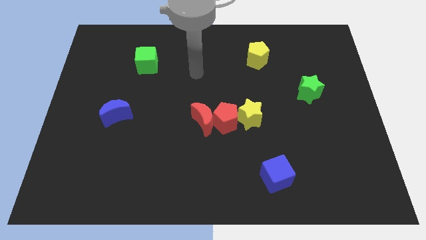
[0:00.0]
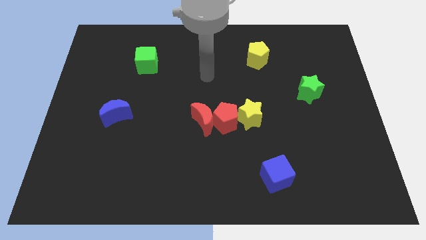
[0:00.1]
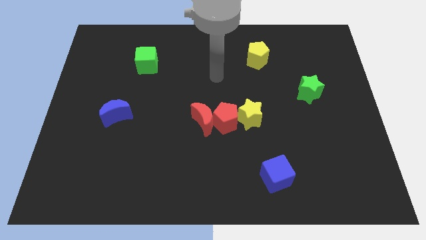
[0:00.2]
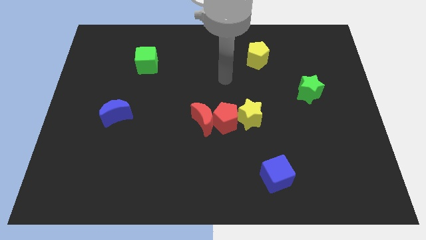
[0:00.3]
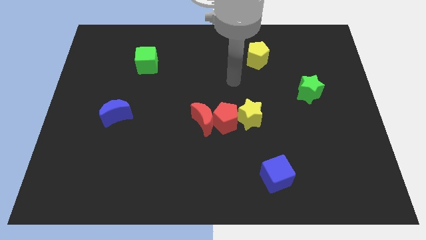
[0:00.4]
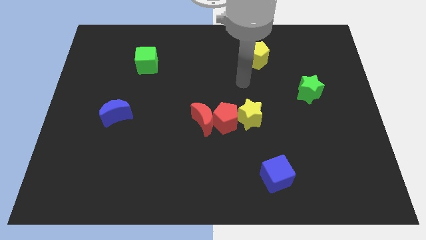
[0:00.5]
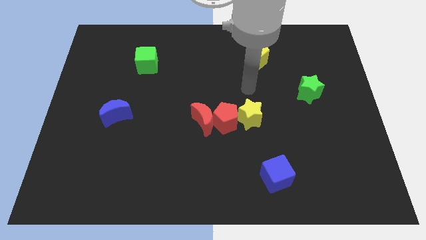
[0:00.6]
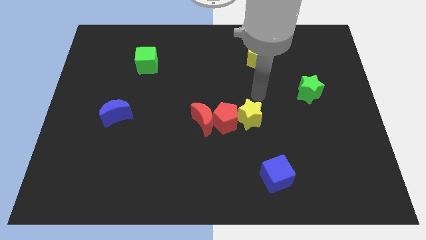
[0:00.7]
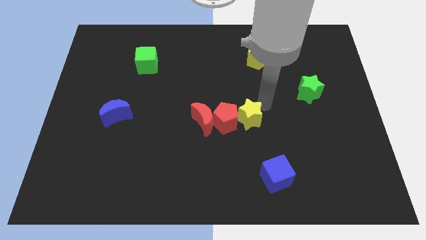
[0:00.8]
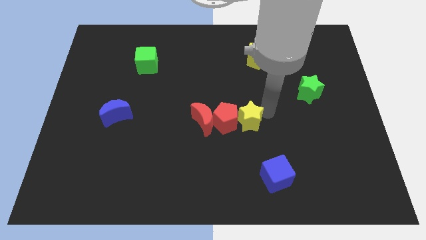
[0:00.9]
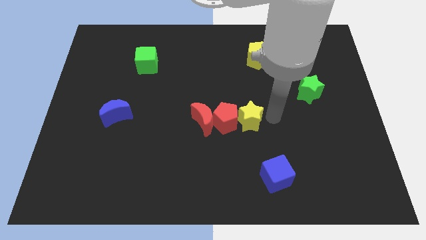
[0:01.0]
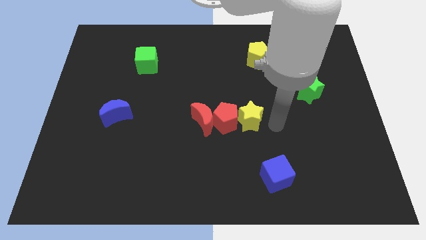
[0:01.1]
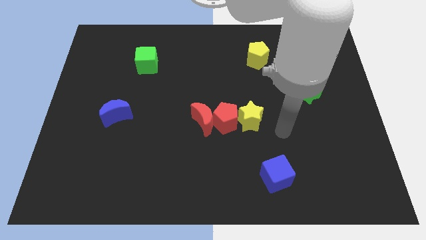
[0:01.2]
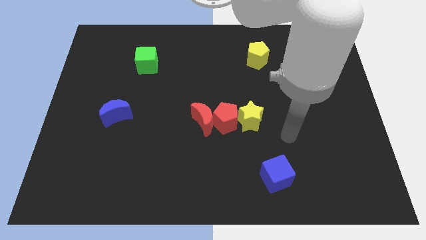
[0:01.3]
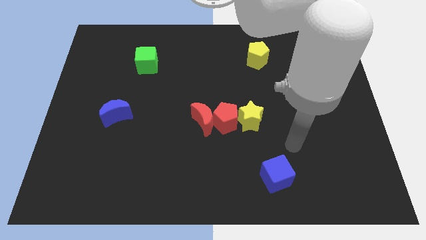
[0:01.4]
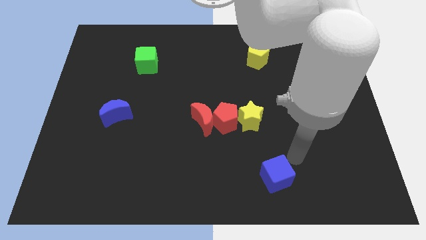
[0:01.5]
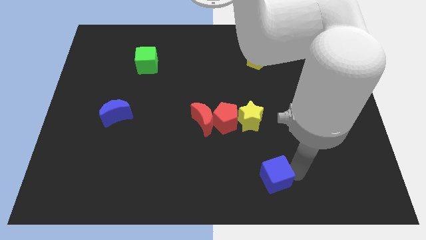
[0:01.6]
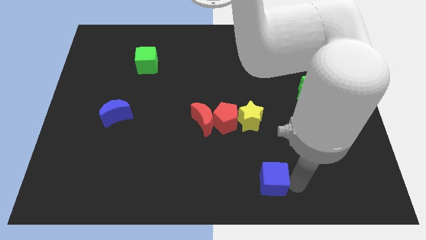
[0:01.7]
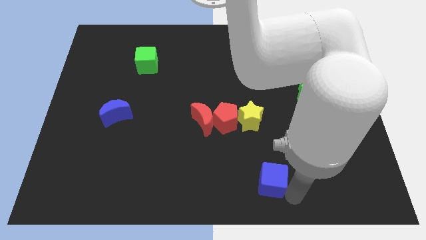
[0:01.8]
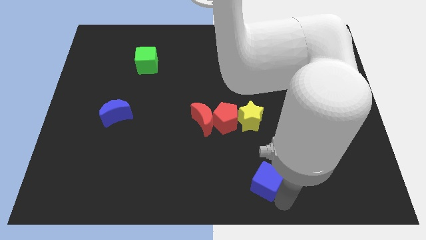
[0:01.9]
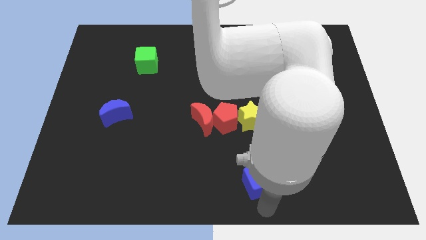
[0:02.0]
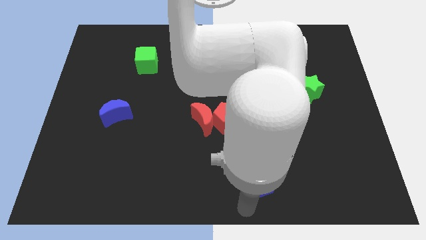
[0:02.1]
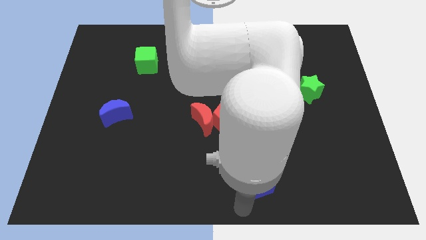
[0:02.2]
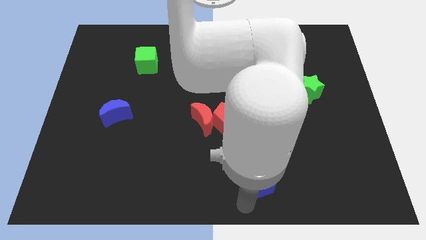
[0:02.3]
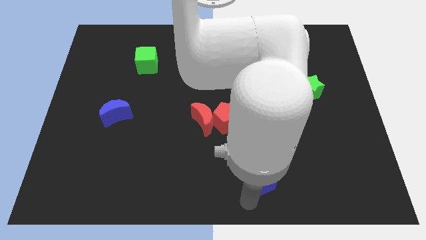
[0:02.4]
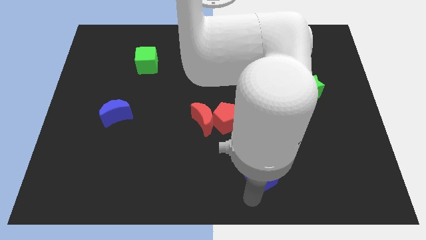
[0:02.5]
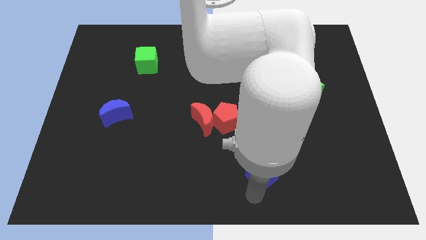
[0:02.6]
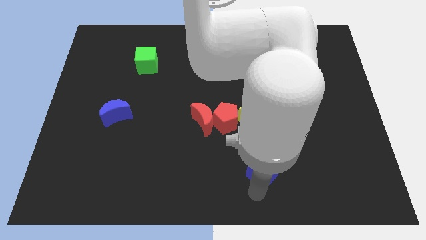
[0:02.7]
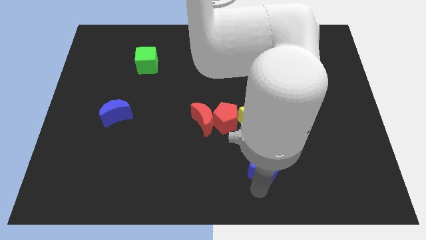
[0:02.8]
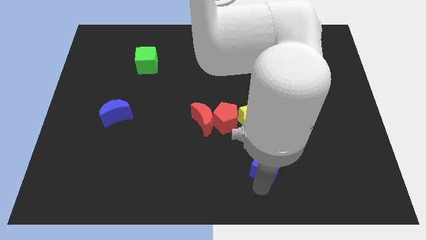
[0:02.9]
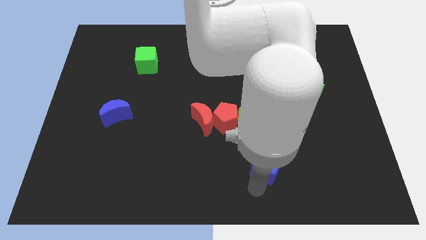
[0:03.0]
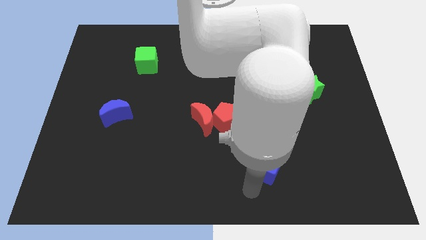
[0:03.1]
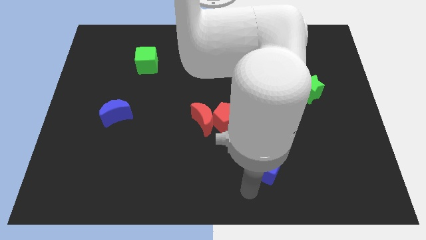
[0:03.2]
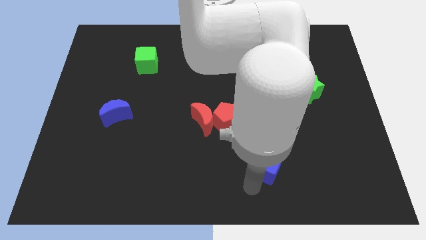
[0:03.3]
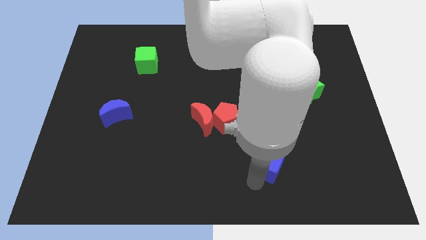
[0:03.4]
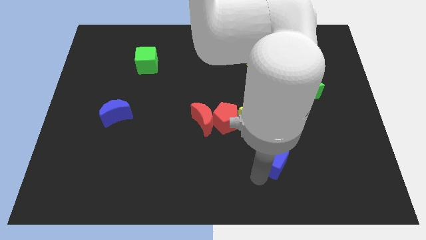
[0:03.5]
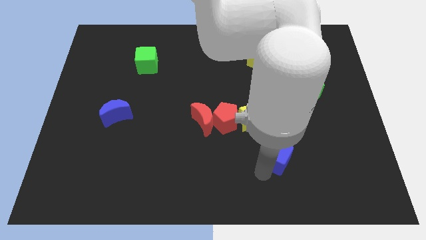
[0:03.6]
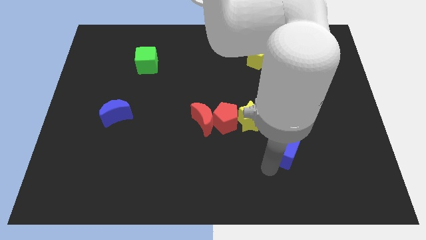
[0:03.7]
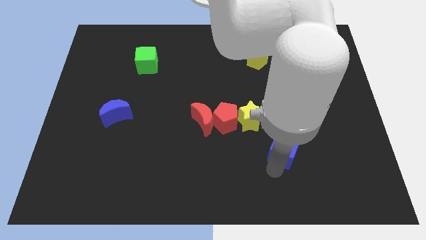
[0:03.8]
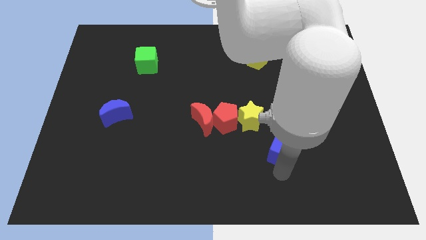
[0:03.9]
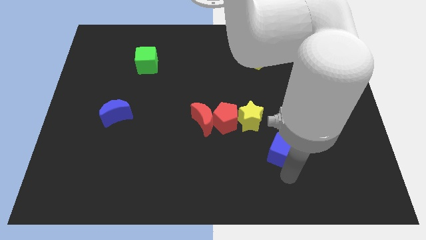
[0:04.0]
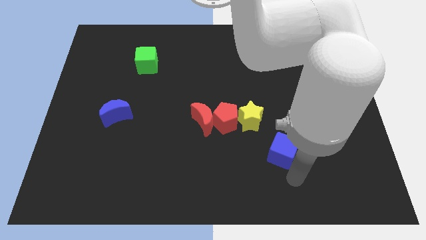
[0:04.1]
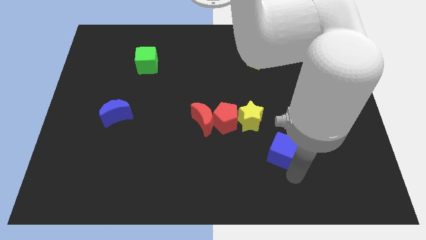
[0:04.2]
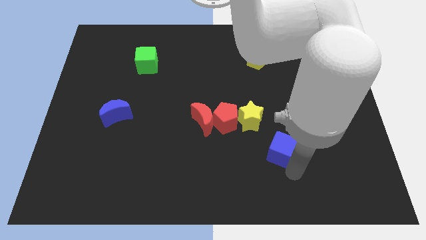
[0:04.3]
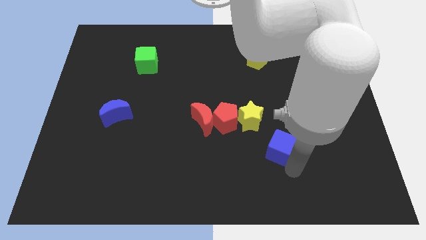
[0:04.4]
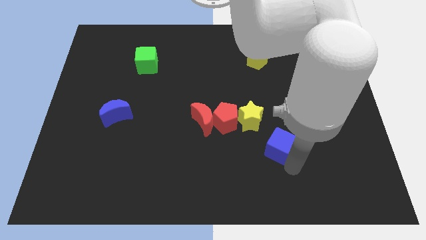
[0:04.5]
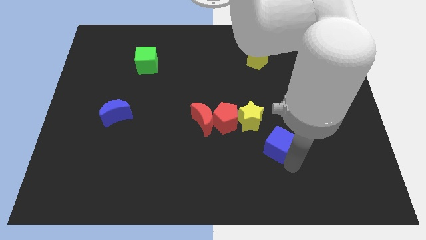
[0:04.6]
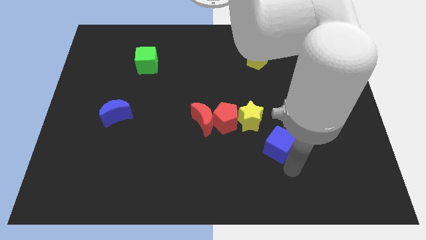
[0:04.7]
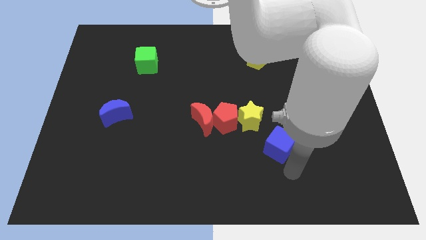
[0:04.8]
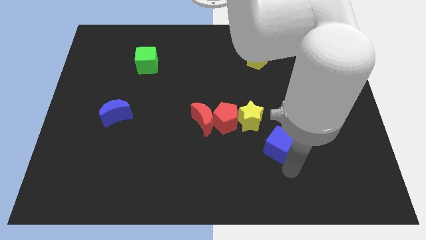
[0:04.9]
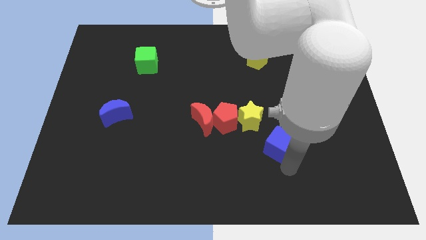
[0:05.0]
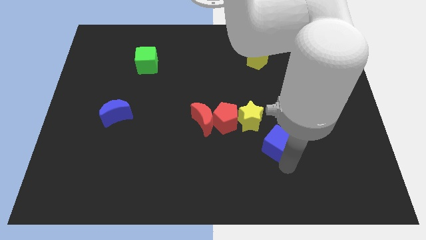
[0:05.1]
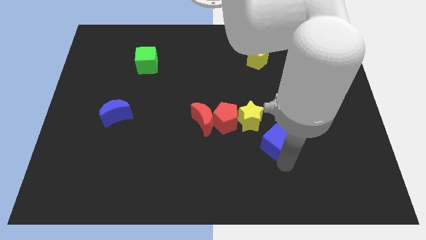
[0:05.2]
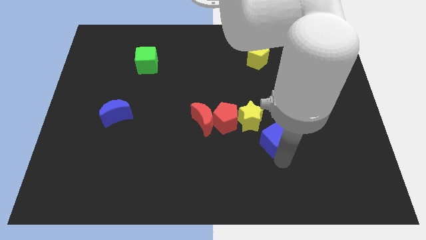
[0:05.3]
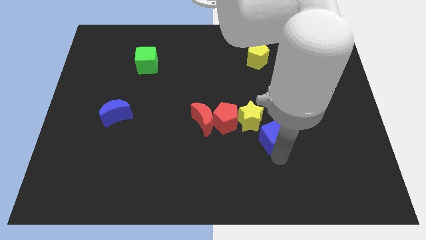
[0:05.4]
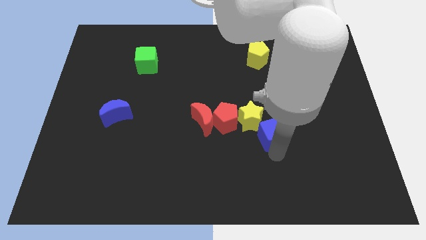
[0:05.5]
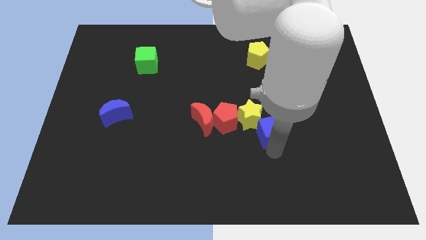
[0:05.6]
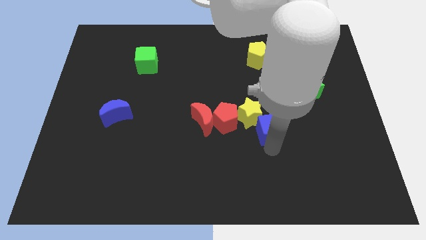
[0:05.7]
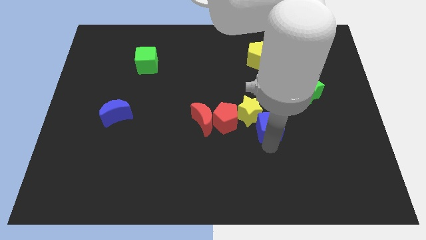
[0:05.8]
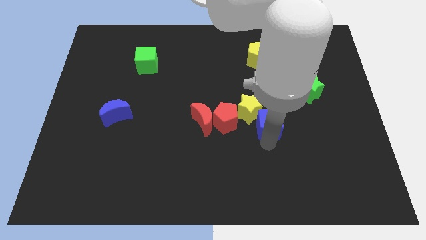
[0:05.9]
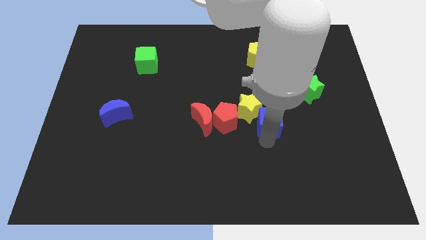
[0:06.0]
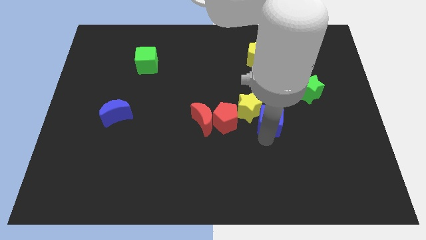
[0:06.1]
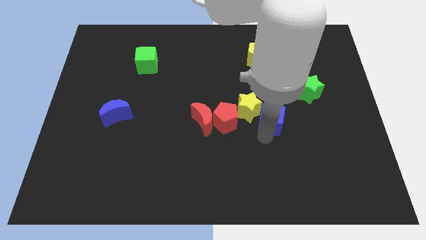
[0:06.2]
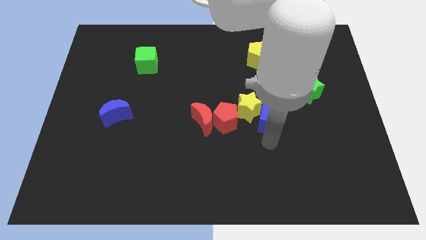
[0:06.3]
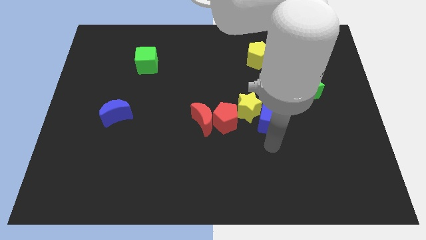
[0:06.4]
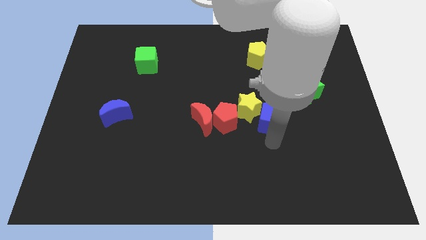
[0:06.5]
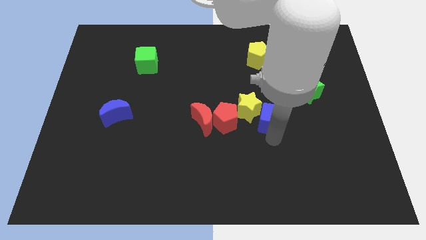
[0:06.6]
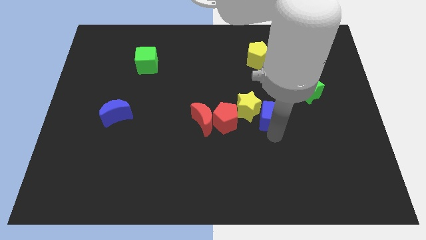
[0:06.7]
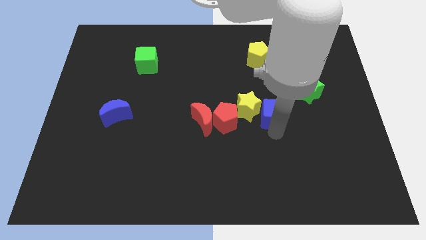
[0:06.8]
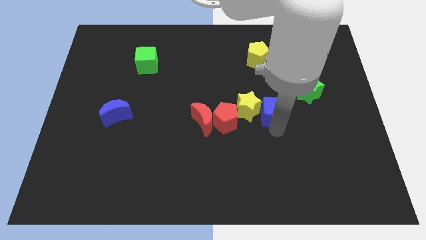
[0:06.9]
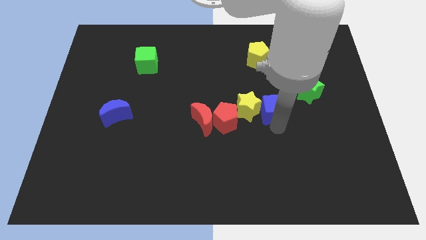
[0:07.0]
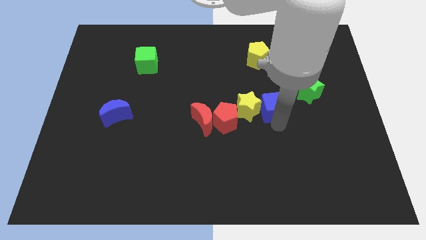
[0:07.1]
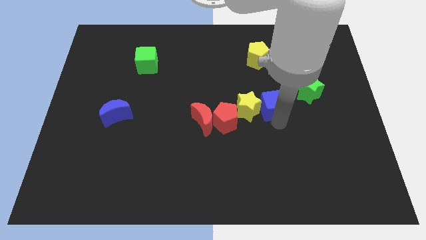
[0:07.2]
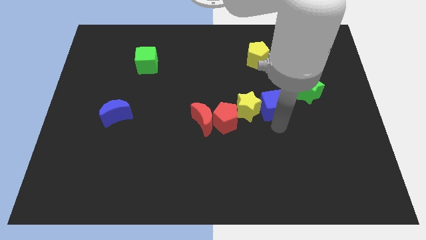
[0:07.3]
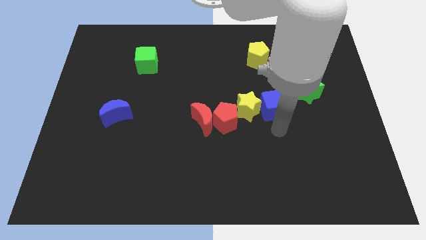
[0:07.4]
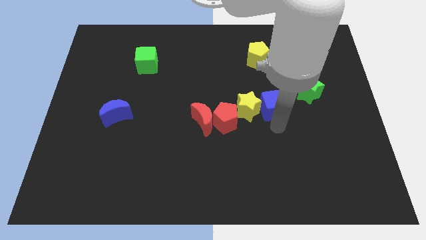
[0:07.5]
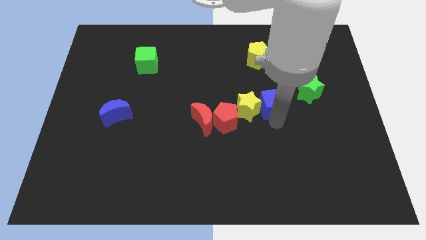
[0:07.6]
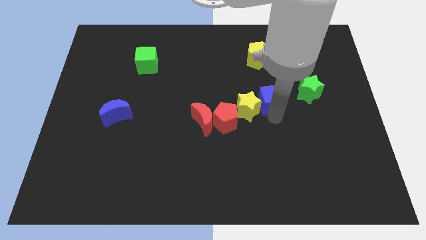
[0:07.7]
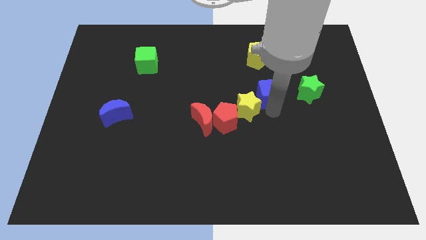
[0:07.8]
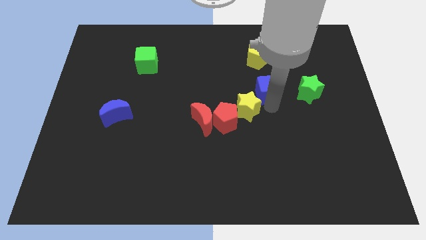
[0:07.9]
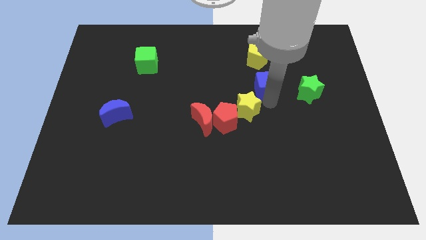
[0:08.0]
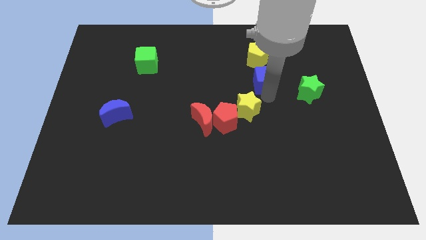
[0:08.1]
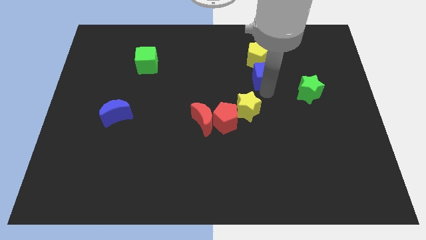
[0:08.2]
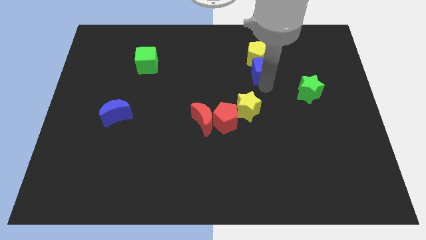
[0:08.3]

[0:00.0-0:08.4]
move the blue cube to the yellow pentagon
